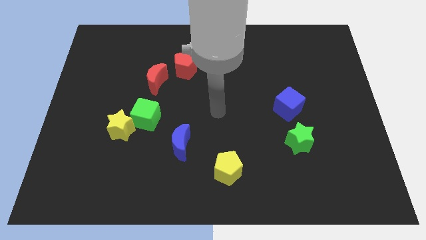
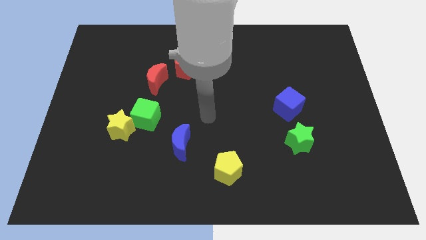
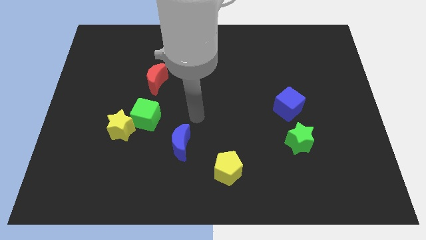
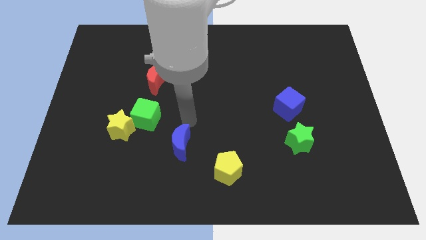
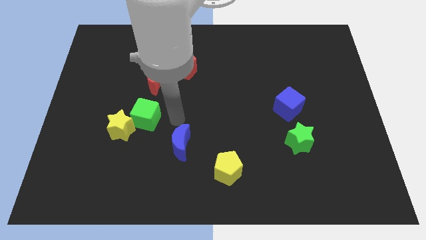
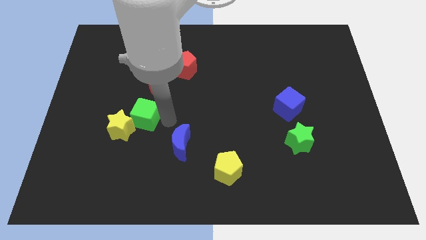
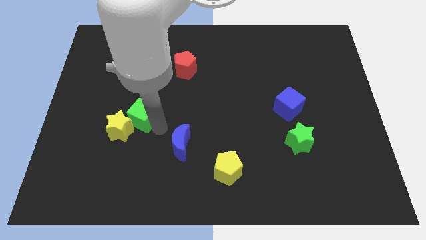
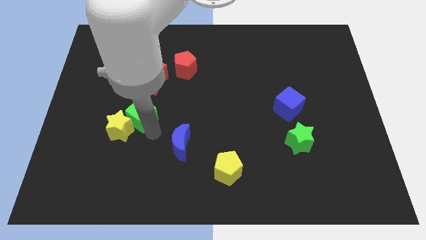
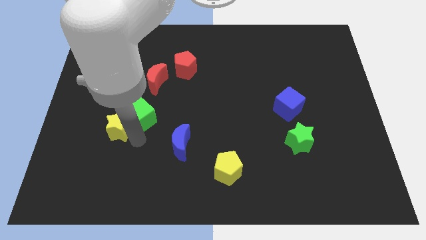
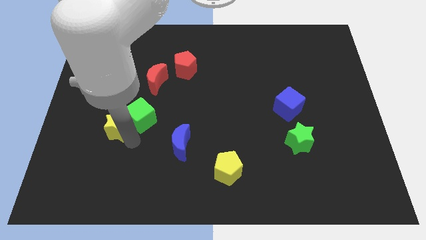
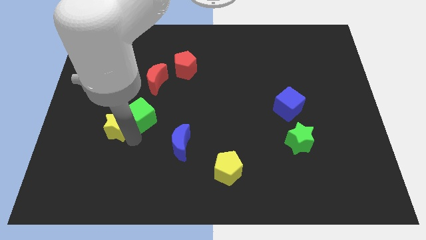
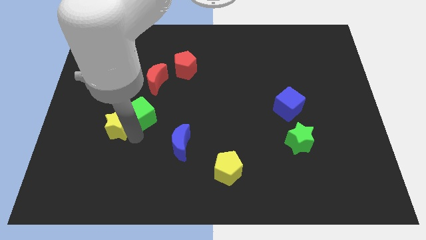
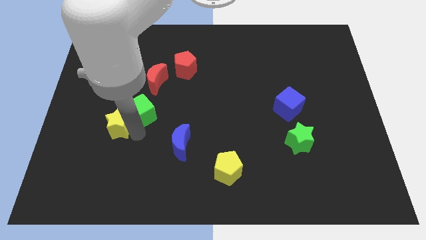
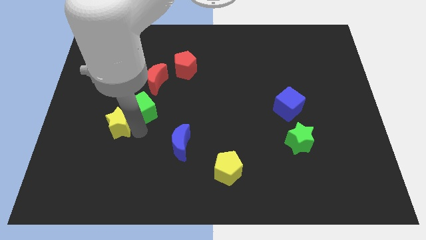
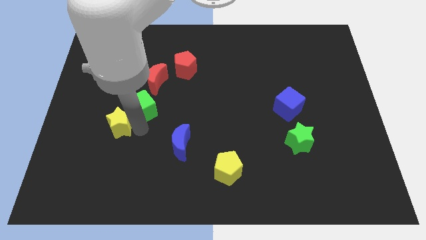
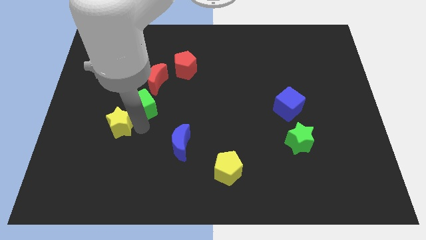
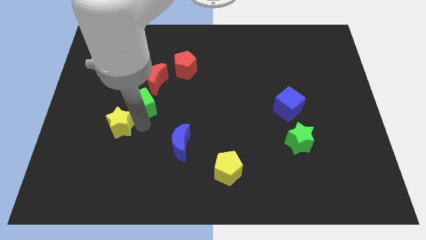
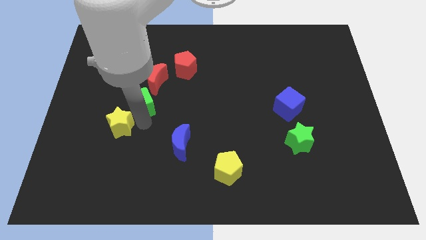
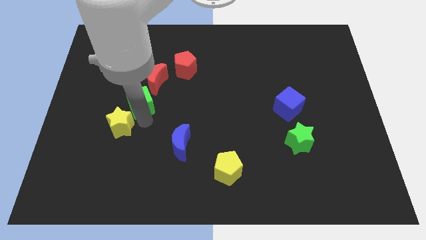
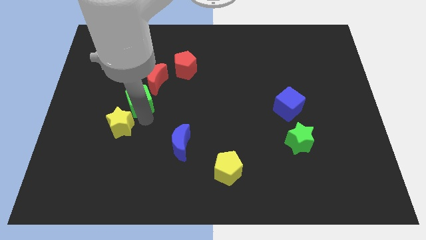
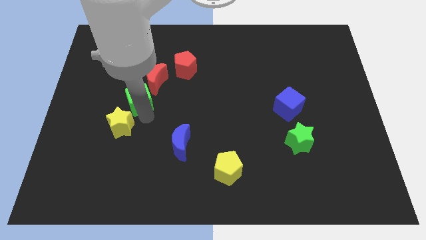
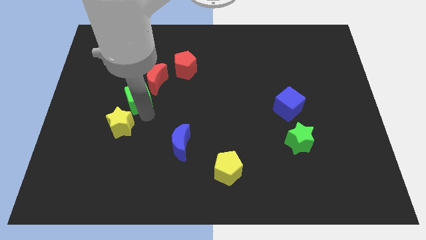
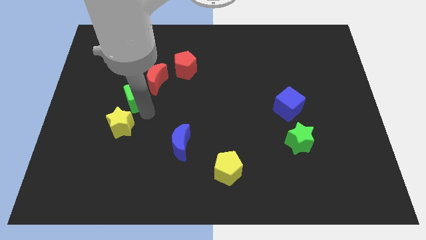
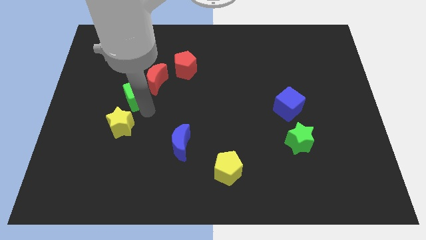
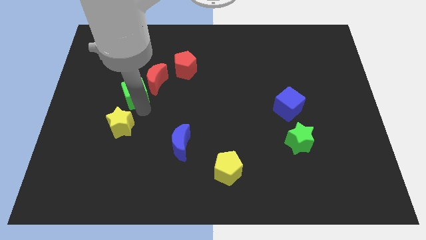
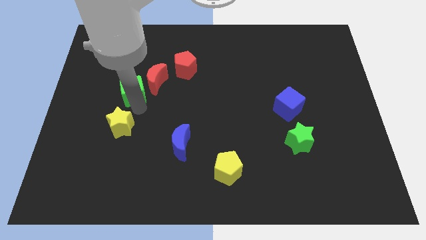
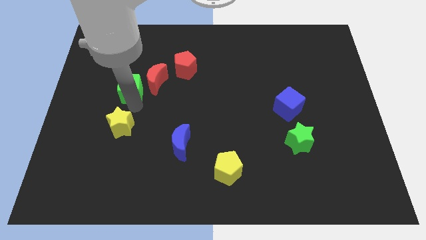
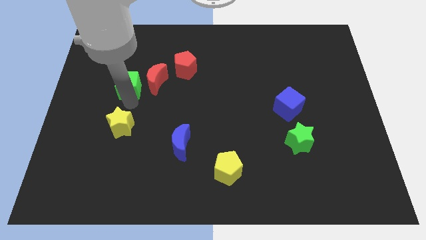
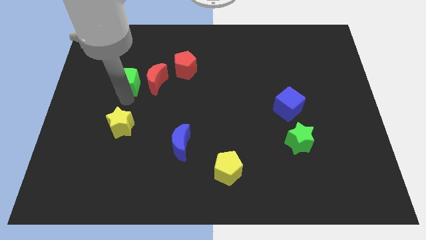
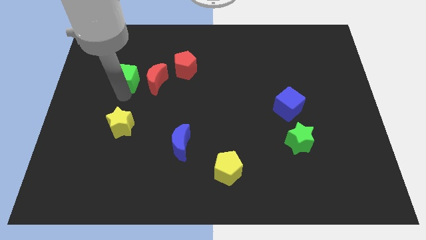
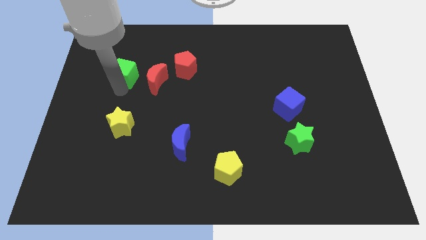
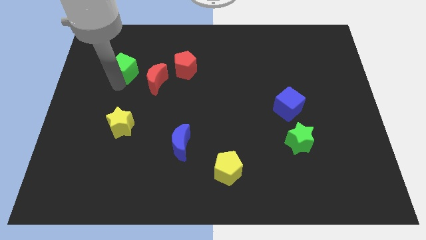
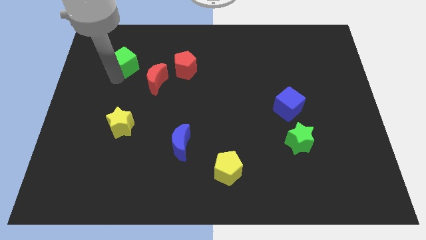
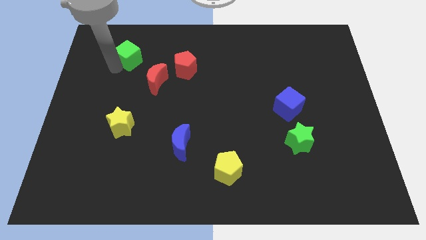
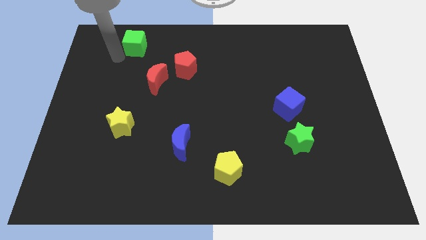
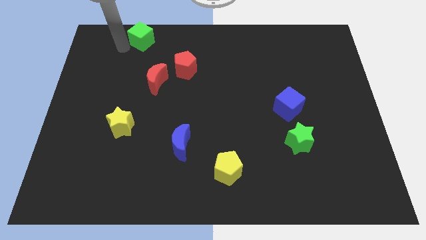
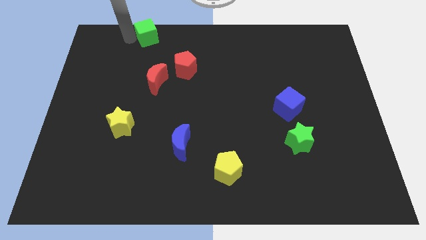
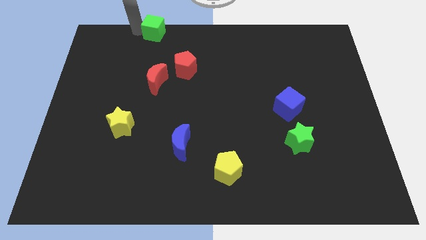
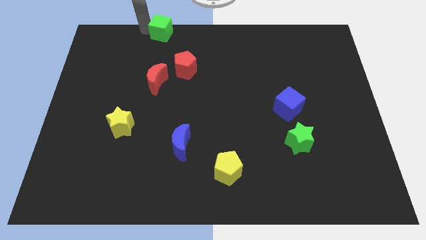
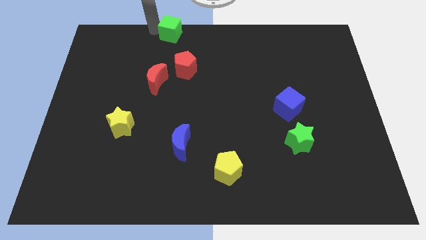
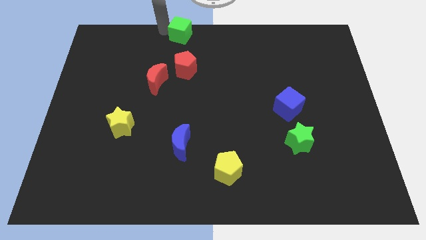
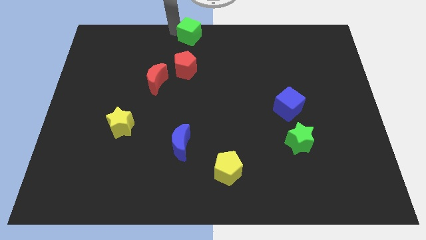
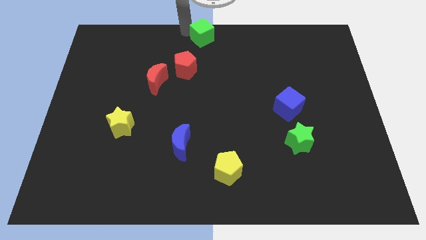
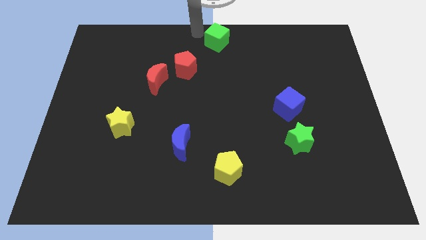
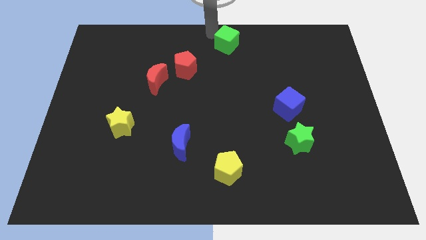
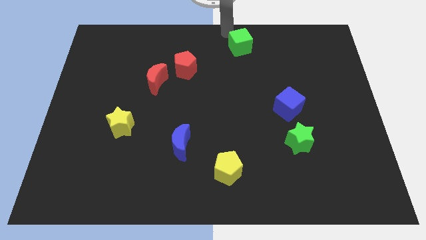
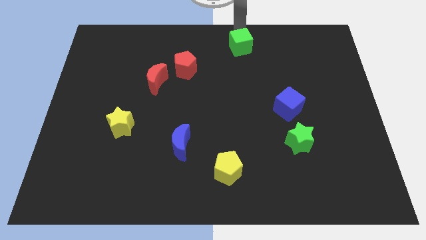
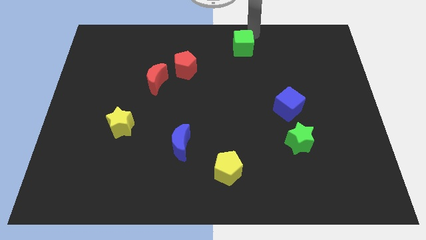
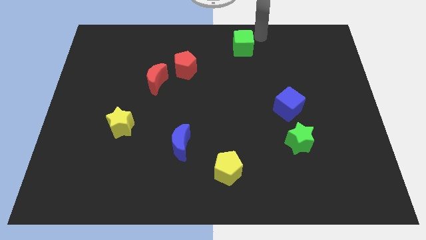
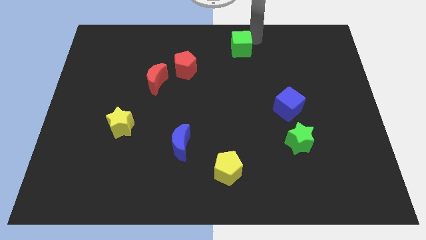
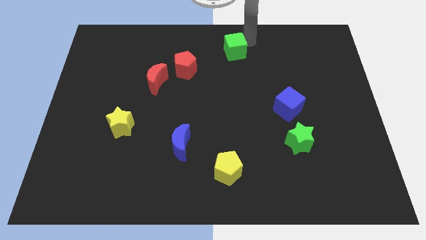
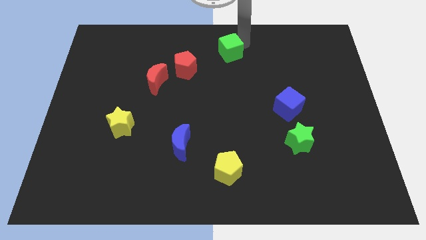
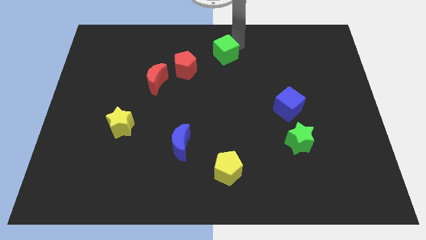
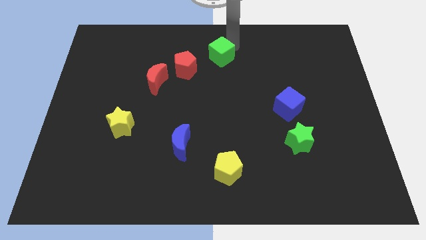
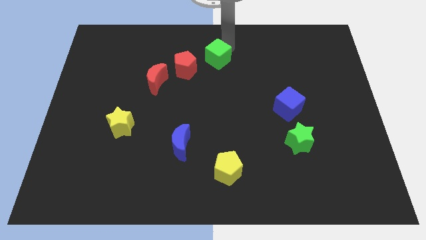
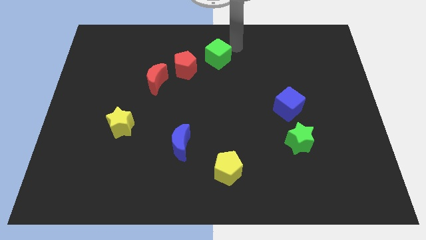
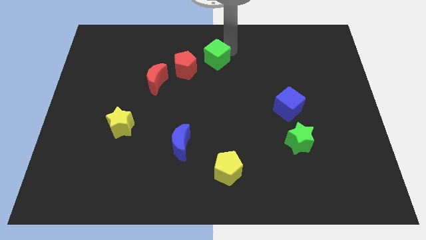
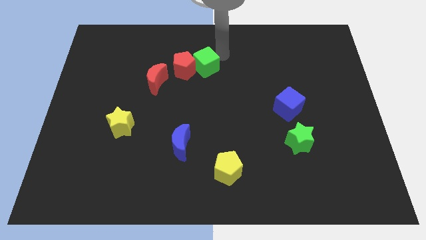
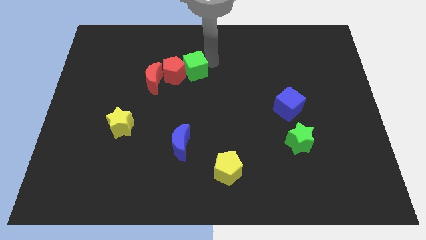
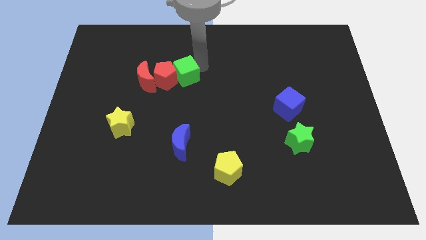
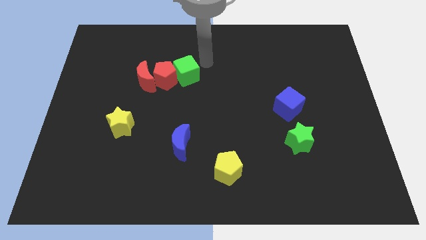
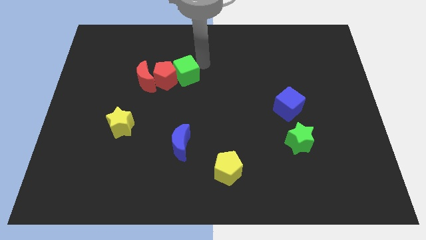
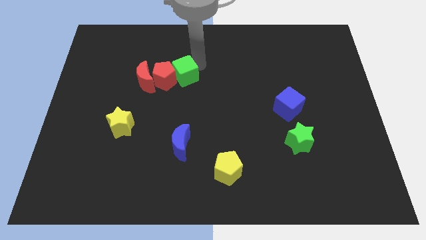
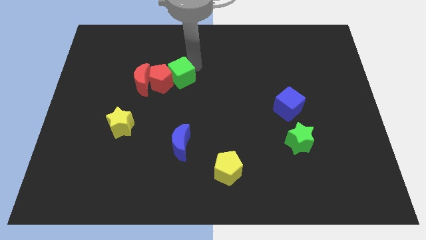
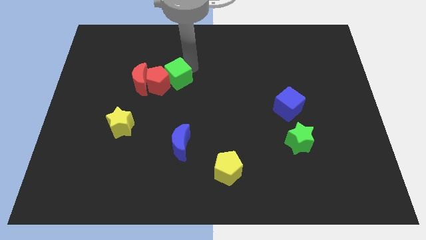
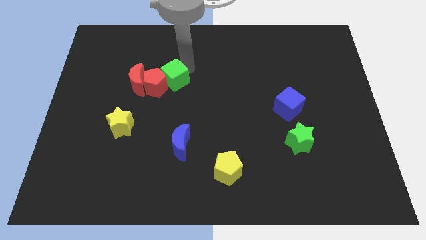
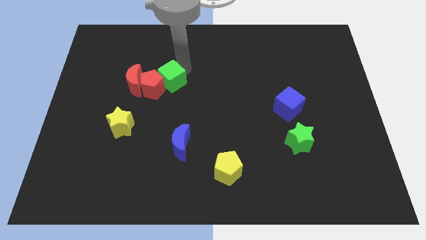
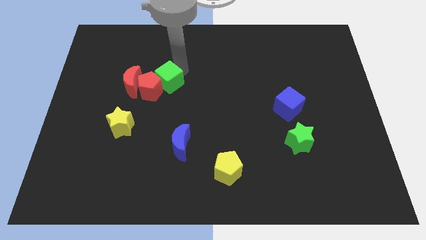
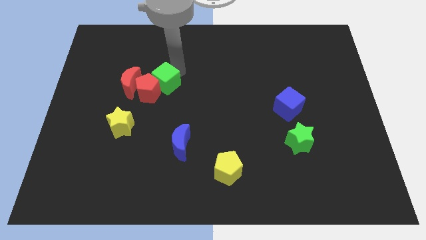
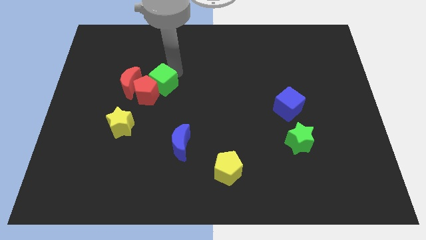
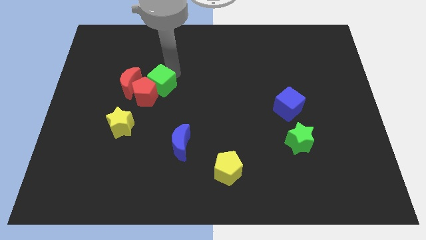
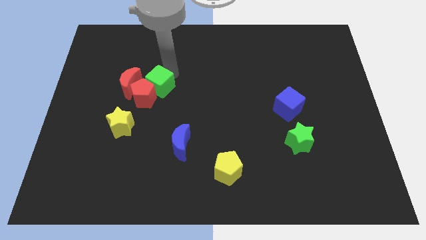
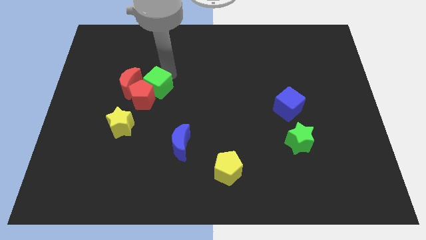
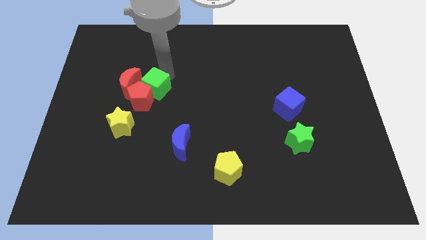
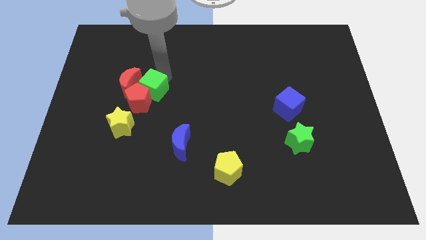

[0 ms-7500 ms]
push the green cube towards the red moon
